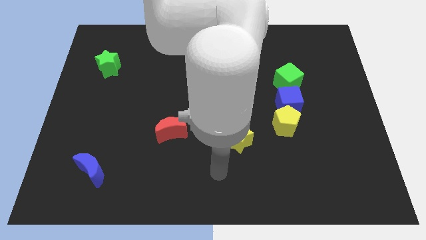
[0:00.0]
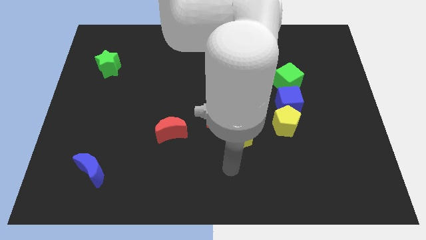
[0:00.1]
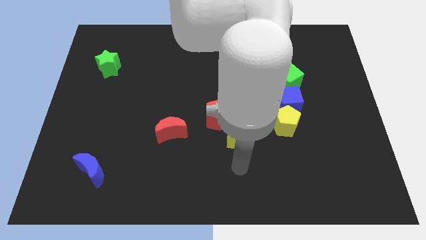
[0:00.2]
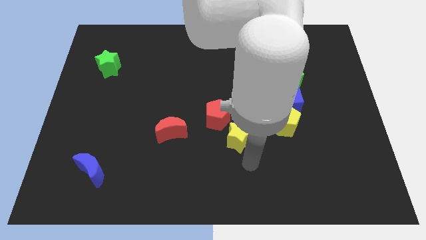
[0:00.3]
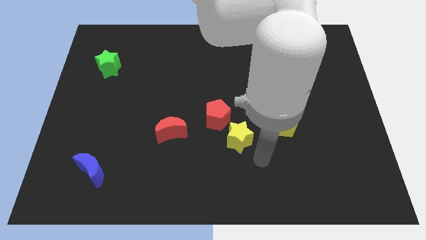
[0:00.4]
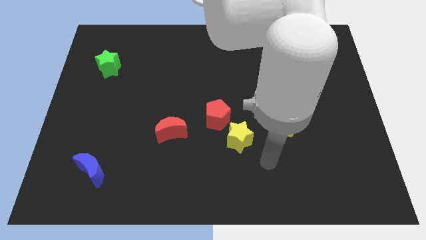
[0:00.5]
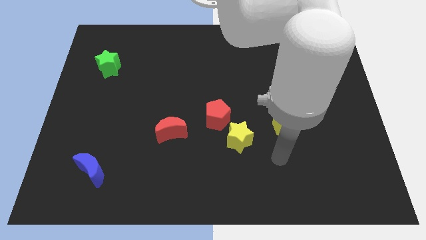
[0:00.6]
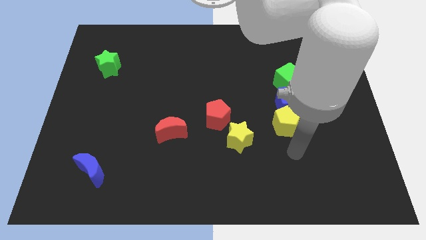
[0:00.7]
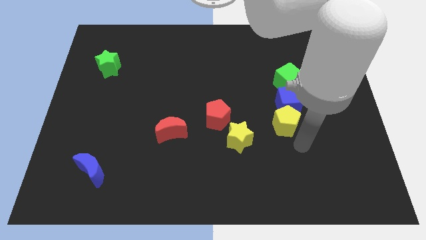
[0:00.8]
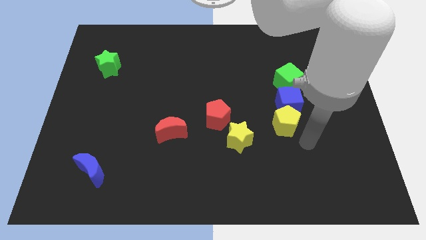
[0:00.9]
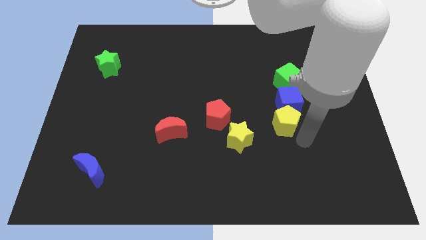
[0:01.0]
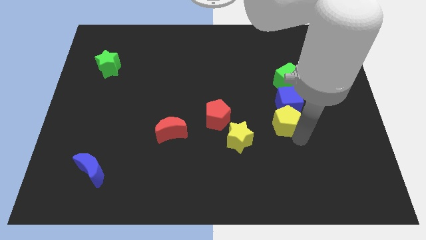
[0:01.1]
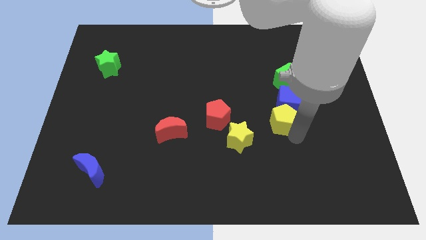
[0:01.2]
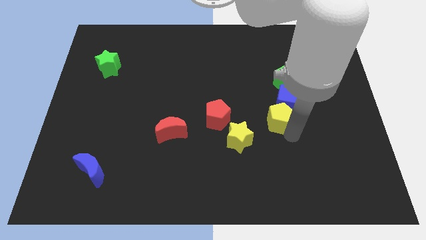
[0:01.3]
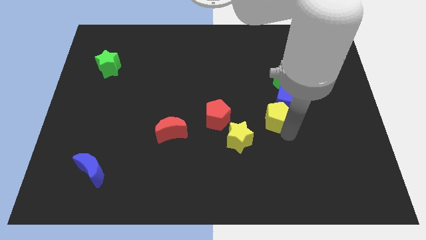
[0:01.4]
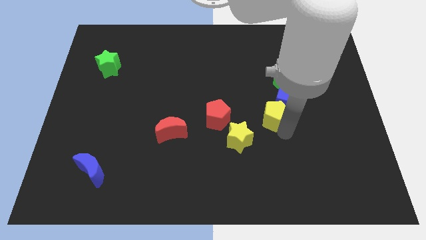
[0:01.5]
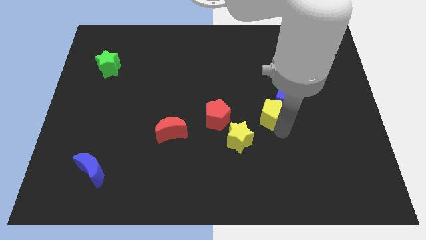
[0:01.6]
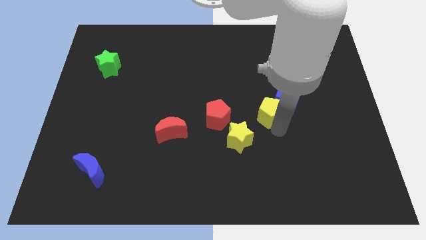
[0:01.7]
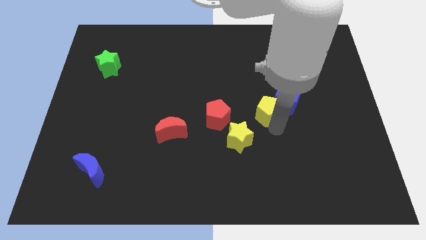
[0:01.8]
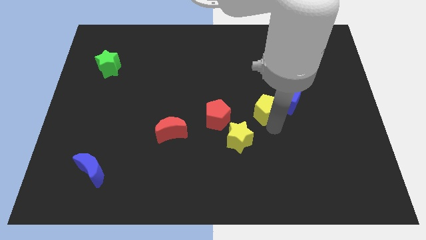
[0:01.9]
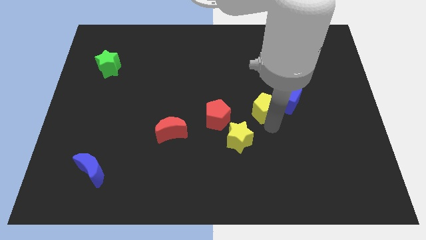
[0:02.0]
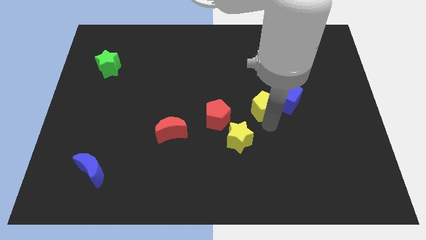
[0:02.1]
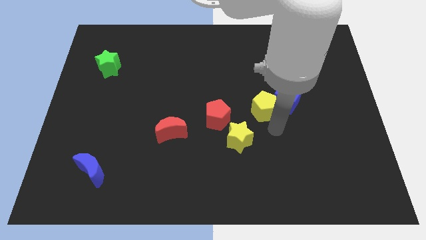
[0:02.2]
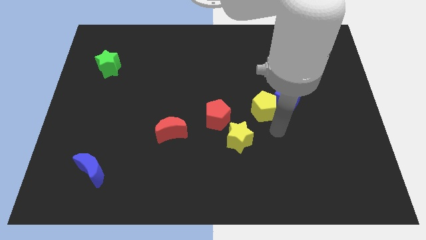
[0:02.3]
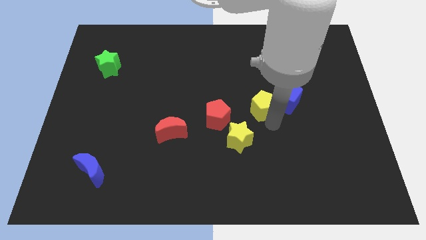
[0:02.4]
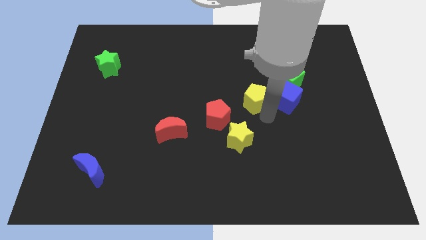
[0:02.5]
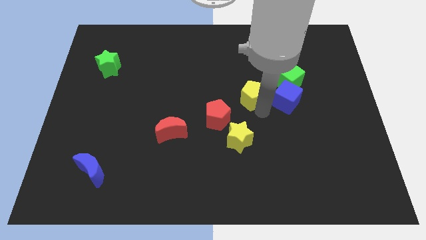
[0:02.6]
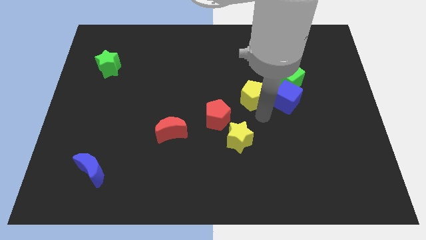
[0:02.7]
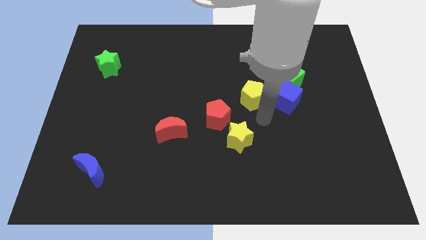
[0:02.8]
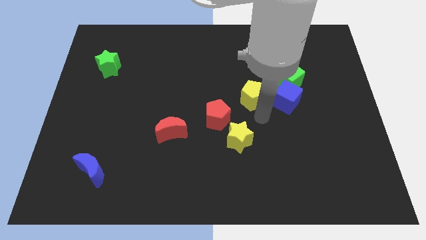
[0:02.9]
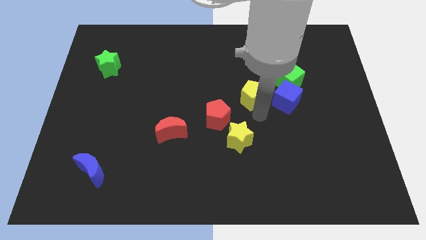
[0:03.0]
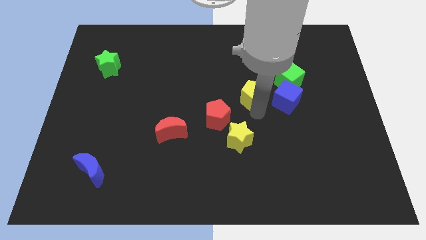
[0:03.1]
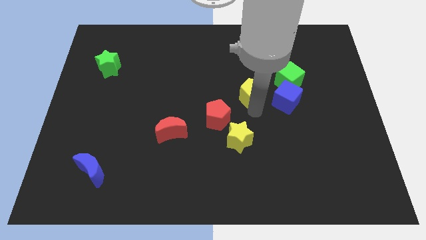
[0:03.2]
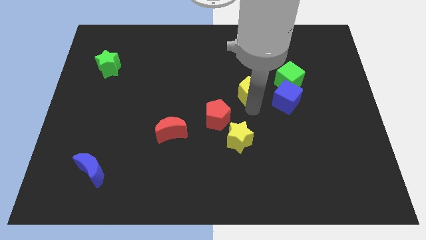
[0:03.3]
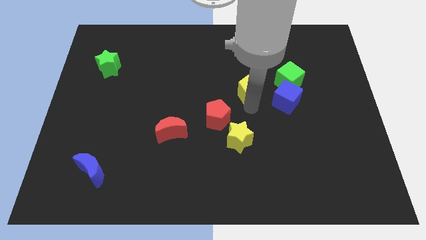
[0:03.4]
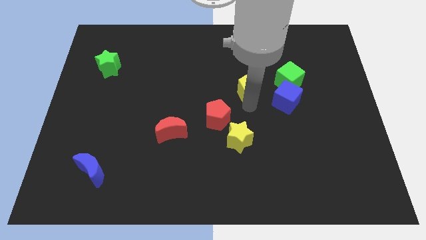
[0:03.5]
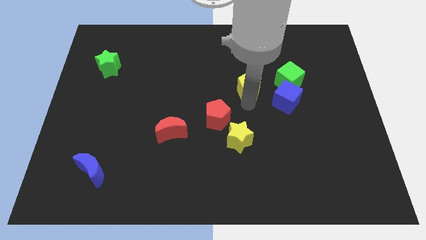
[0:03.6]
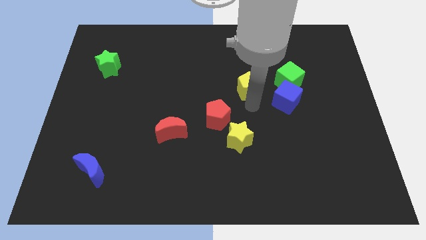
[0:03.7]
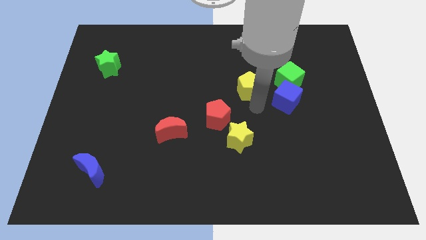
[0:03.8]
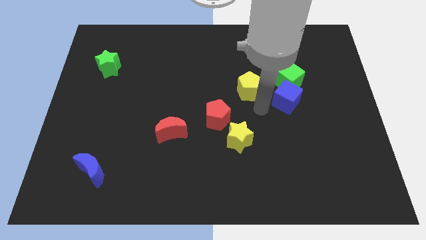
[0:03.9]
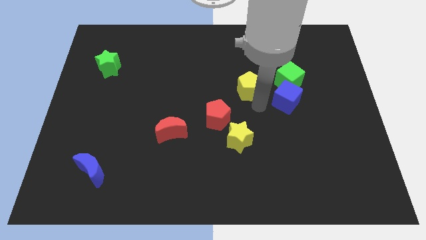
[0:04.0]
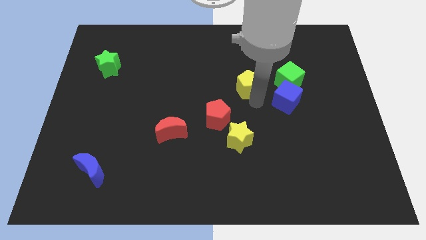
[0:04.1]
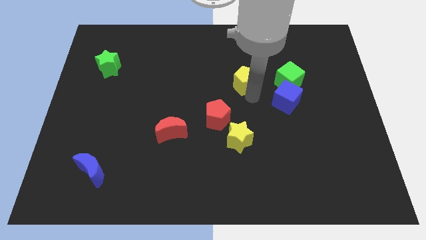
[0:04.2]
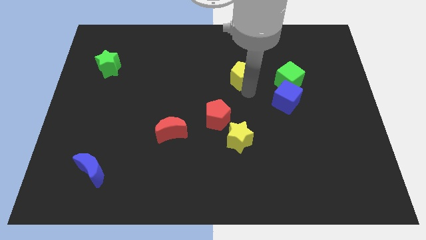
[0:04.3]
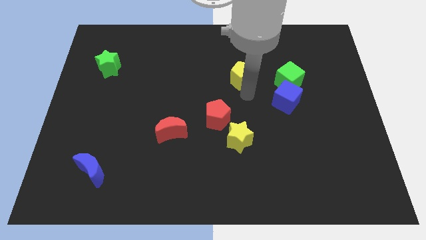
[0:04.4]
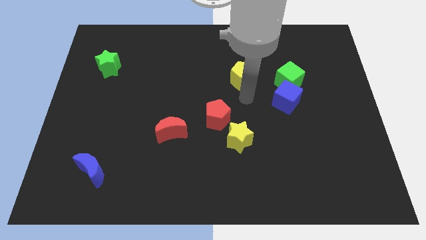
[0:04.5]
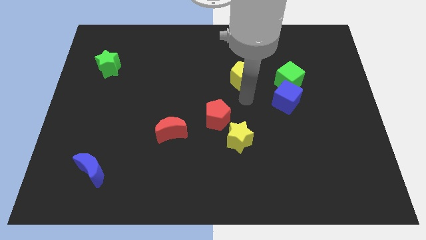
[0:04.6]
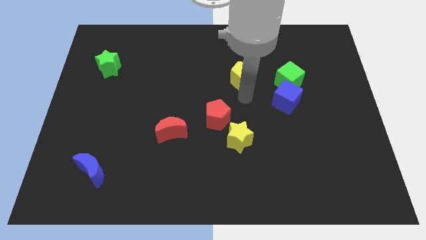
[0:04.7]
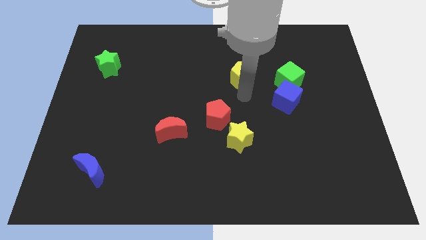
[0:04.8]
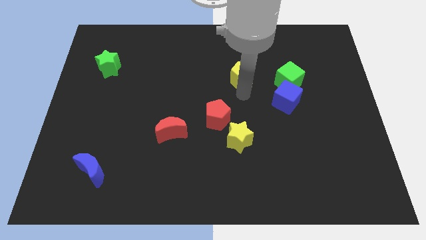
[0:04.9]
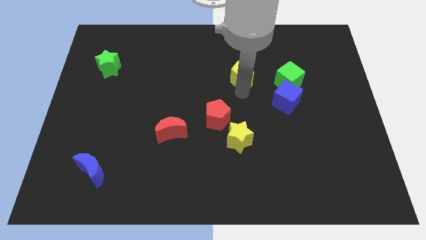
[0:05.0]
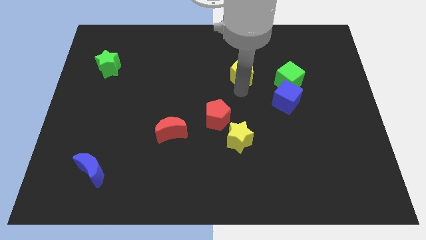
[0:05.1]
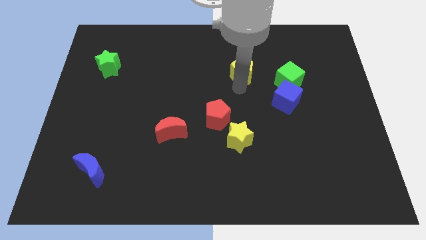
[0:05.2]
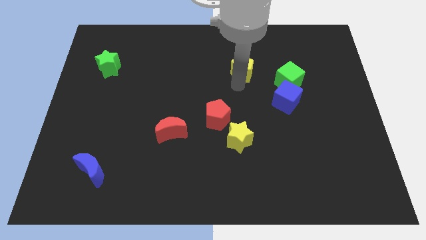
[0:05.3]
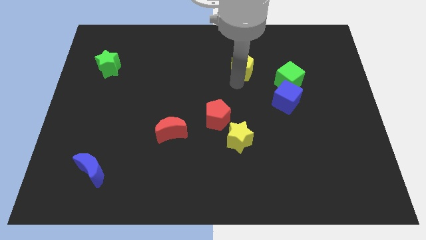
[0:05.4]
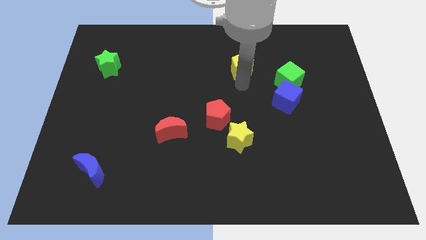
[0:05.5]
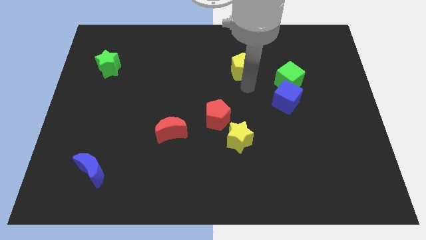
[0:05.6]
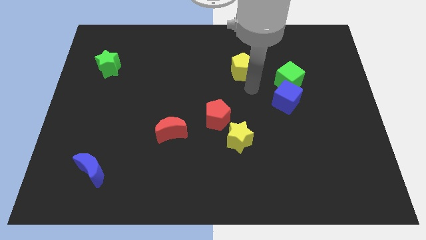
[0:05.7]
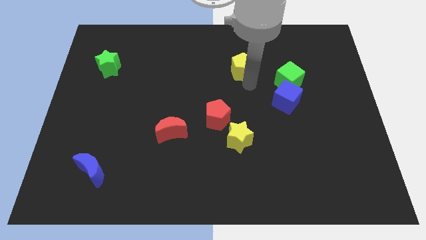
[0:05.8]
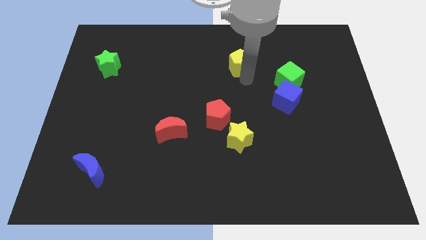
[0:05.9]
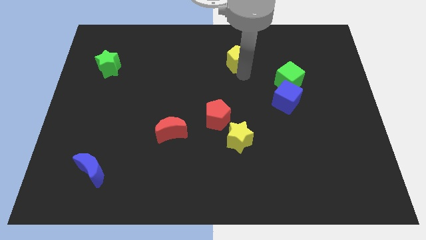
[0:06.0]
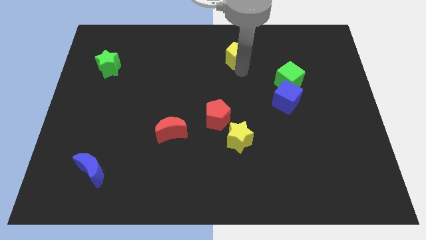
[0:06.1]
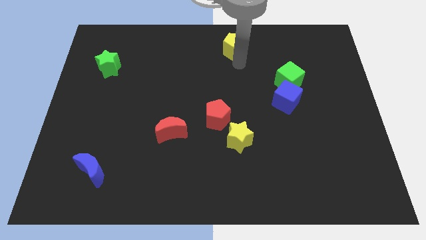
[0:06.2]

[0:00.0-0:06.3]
put the yellow pentagon to the towards your base

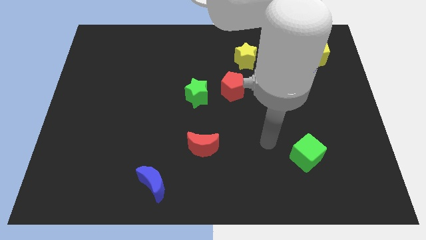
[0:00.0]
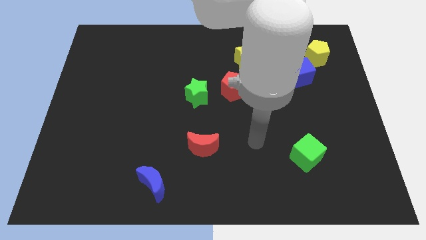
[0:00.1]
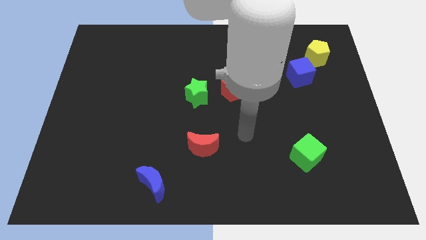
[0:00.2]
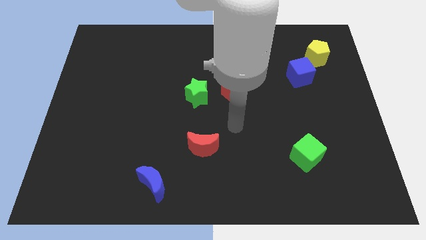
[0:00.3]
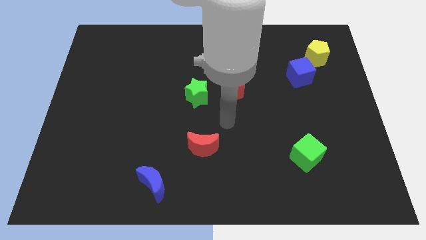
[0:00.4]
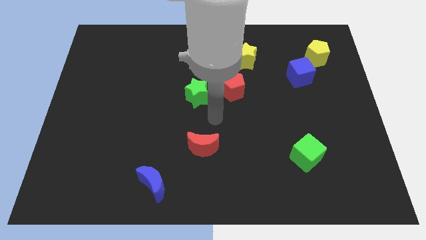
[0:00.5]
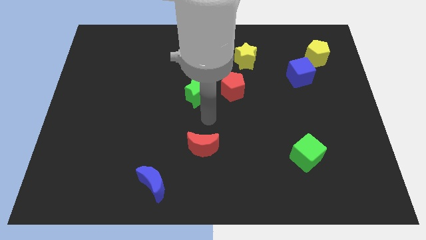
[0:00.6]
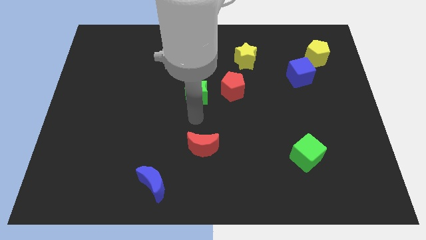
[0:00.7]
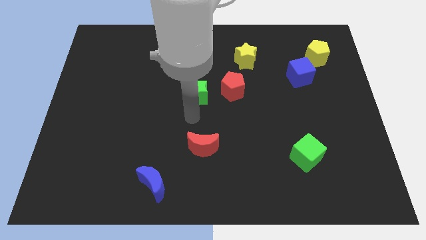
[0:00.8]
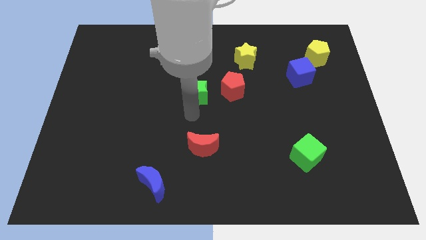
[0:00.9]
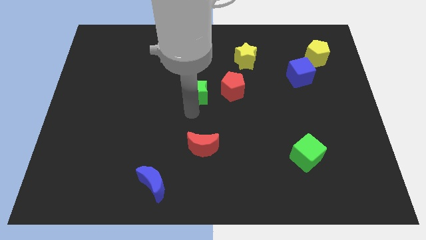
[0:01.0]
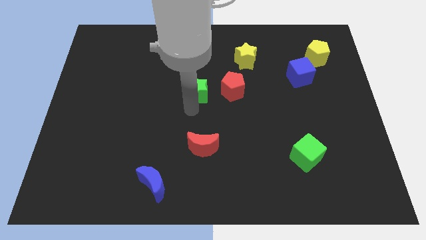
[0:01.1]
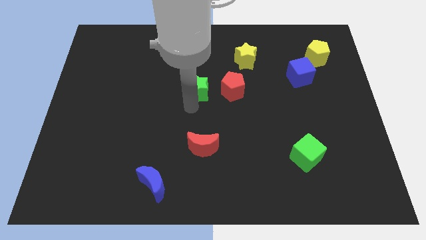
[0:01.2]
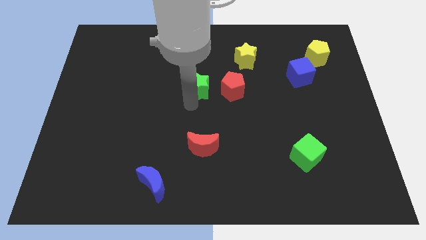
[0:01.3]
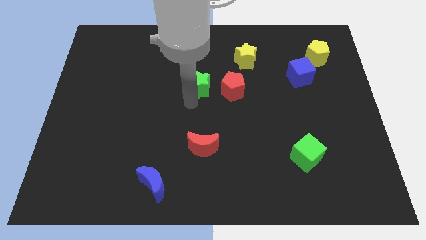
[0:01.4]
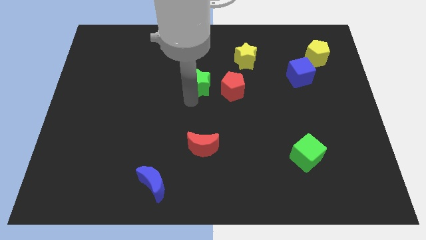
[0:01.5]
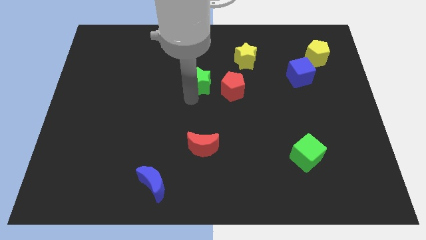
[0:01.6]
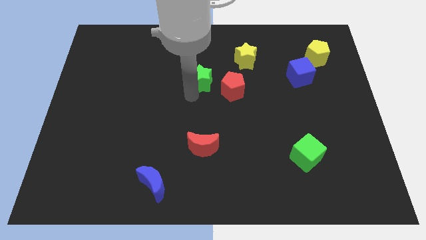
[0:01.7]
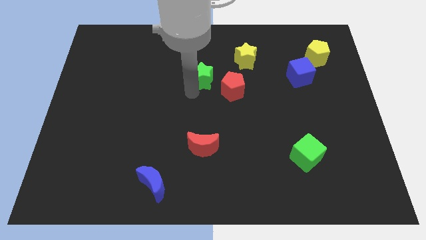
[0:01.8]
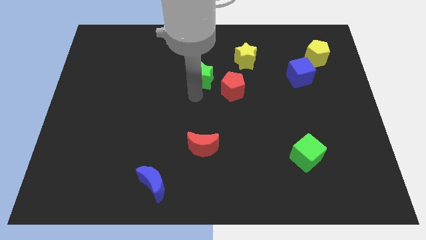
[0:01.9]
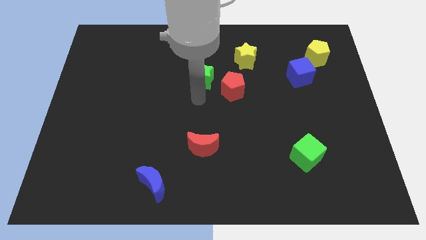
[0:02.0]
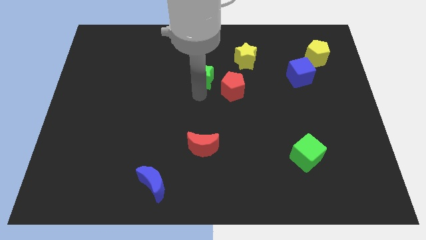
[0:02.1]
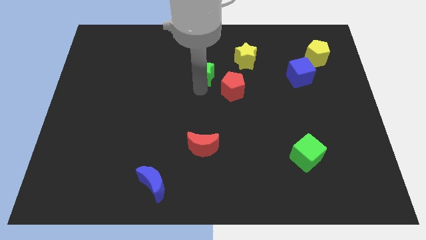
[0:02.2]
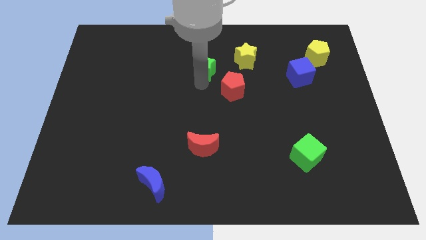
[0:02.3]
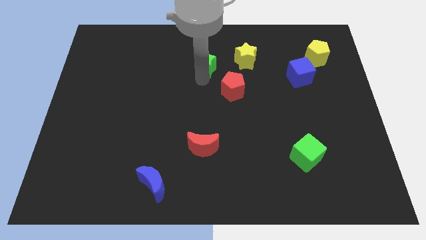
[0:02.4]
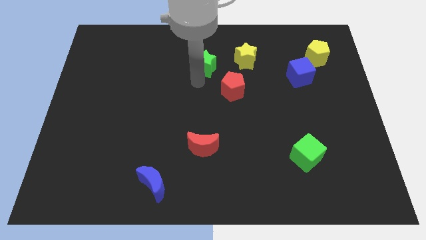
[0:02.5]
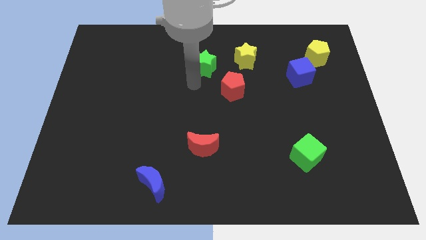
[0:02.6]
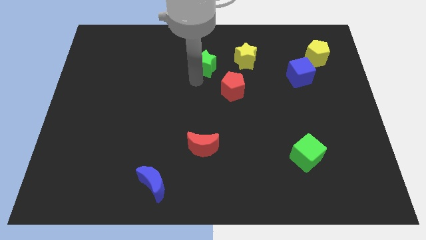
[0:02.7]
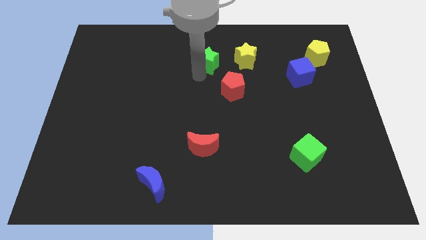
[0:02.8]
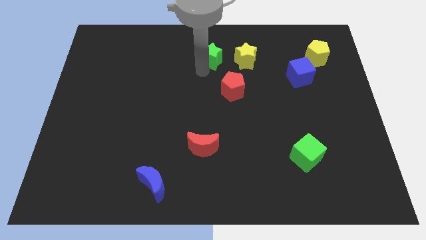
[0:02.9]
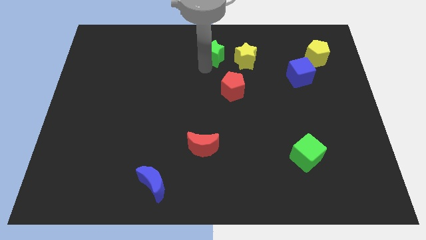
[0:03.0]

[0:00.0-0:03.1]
put the green star to the top side
